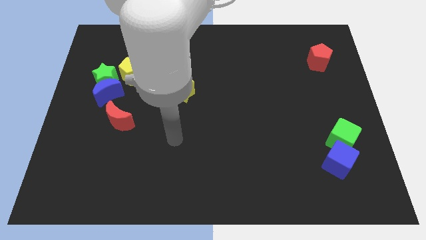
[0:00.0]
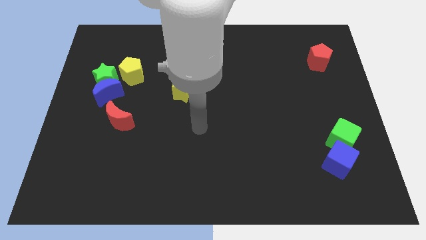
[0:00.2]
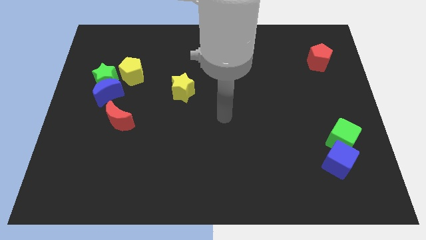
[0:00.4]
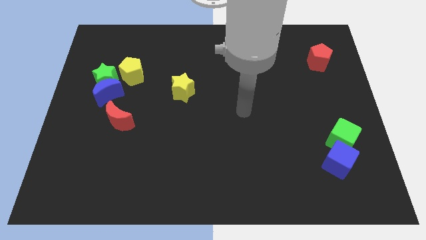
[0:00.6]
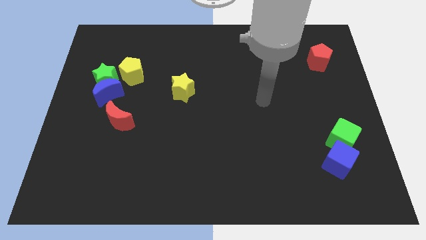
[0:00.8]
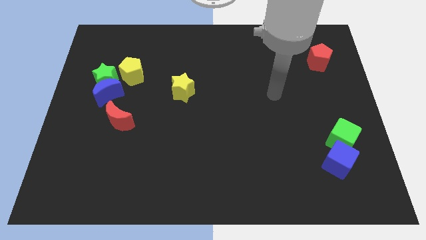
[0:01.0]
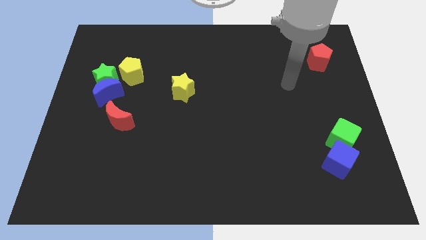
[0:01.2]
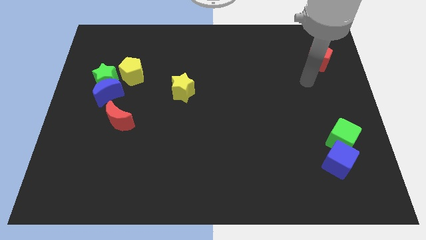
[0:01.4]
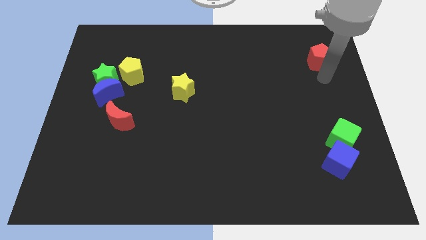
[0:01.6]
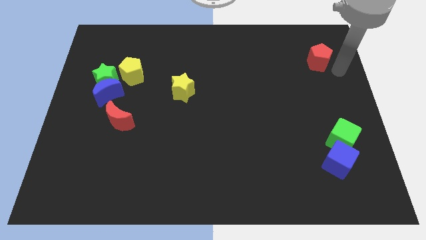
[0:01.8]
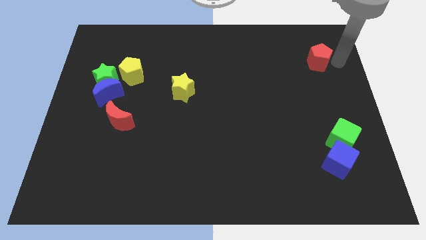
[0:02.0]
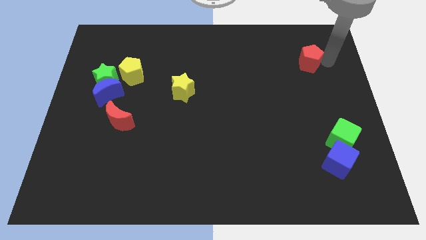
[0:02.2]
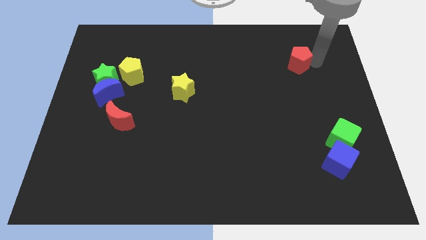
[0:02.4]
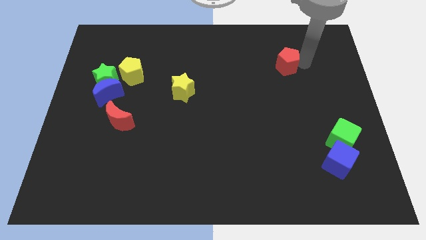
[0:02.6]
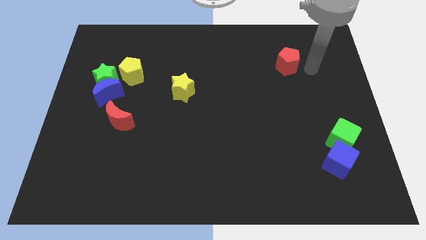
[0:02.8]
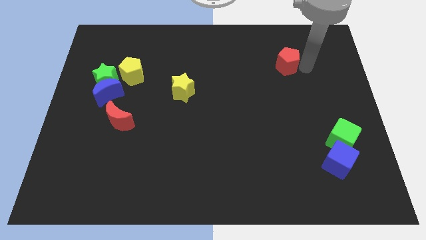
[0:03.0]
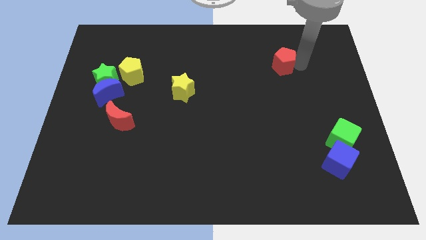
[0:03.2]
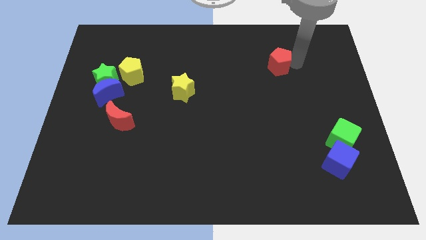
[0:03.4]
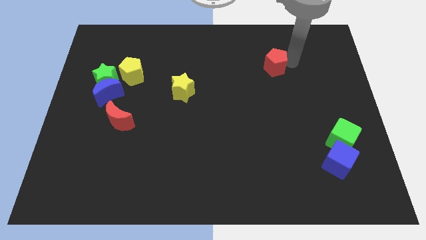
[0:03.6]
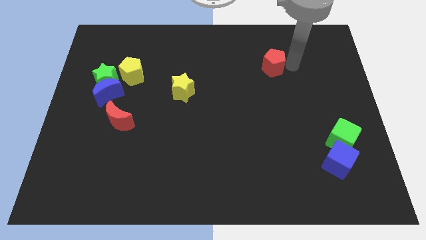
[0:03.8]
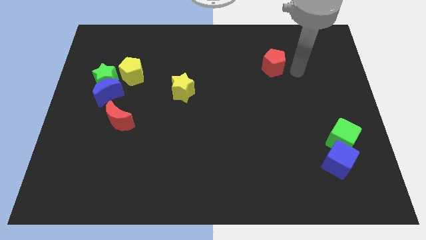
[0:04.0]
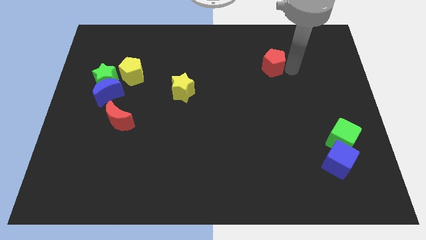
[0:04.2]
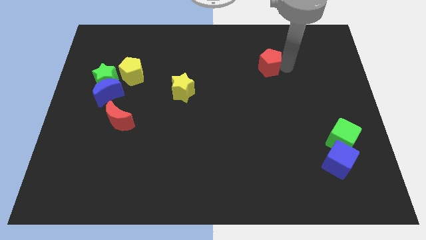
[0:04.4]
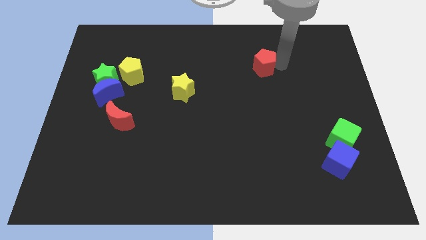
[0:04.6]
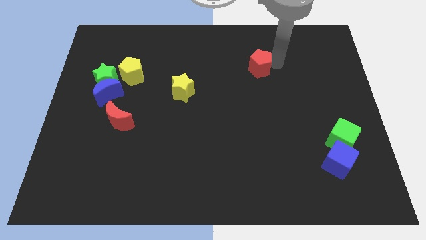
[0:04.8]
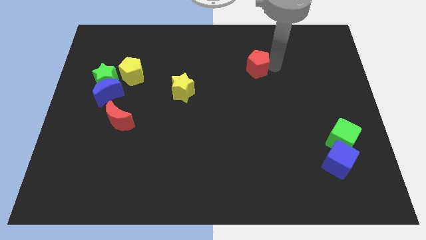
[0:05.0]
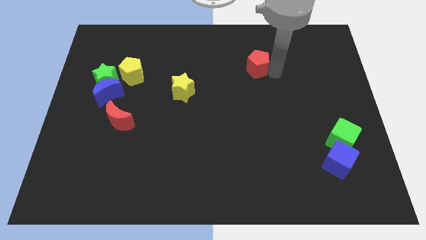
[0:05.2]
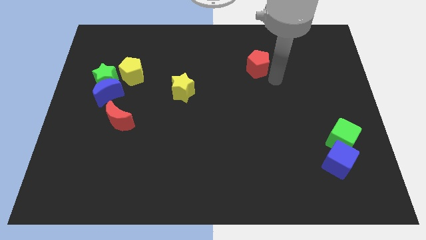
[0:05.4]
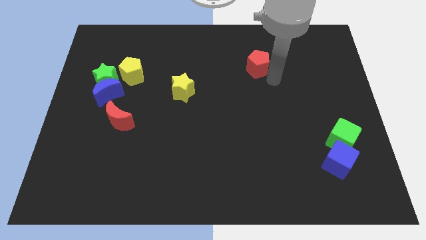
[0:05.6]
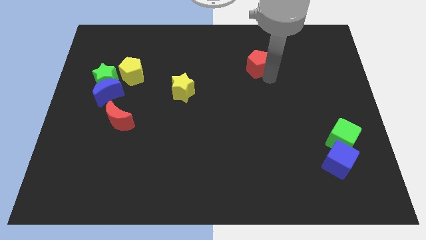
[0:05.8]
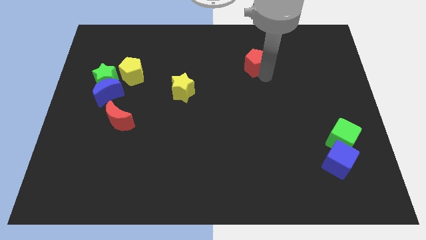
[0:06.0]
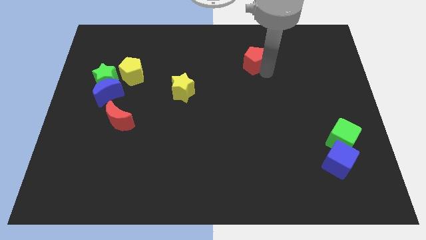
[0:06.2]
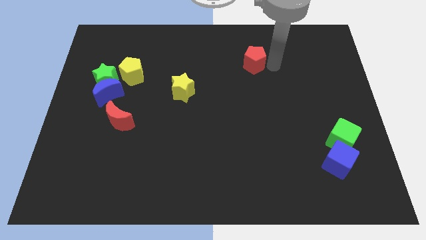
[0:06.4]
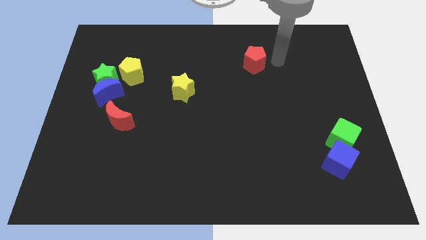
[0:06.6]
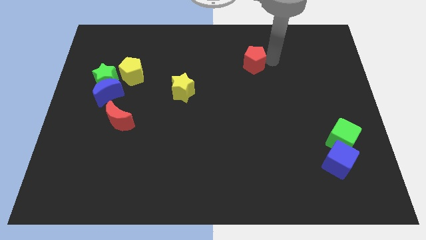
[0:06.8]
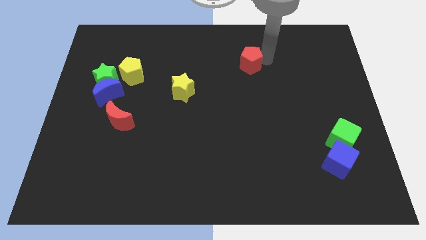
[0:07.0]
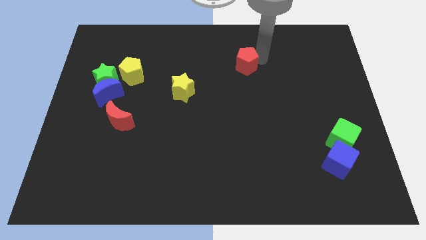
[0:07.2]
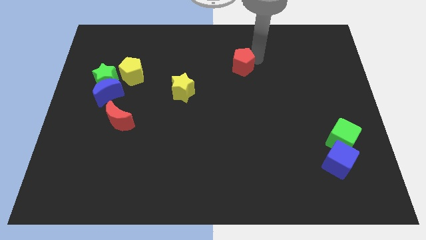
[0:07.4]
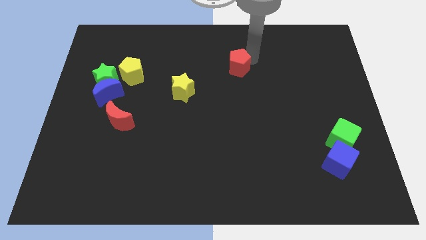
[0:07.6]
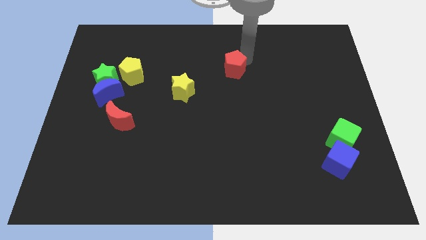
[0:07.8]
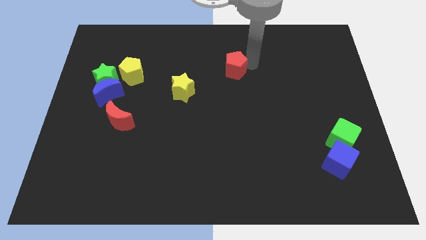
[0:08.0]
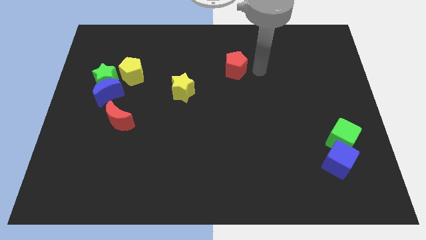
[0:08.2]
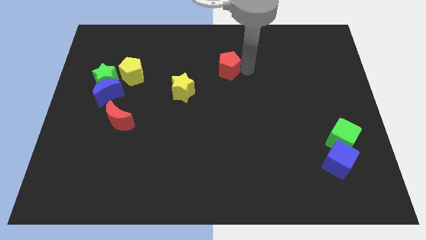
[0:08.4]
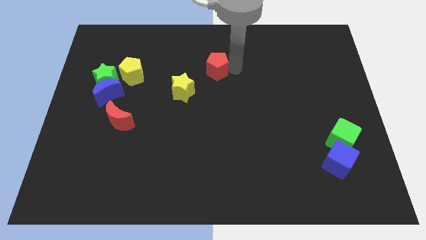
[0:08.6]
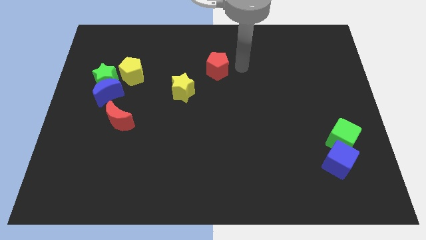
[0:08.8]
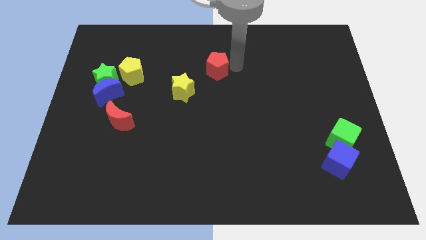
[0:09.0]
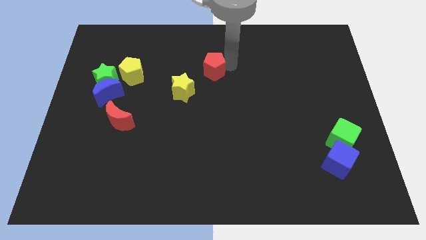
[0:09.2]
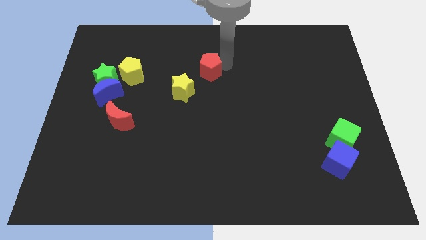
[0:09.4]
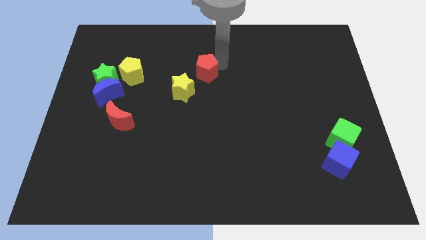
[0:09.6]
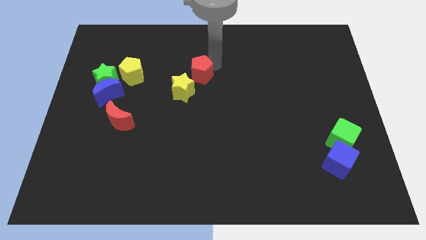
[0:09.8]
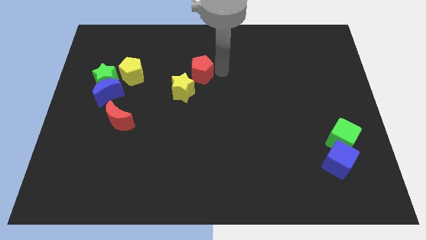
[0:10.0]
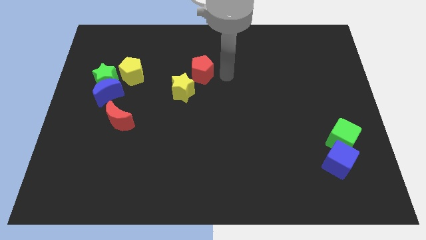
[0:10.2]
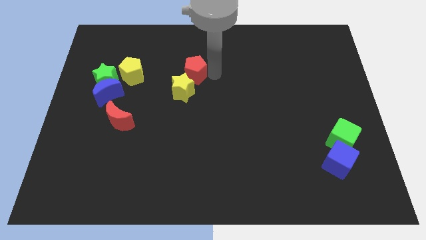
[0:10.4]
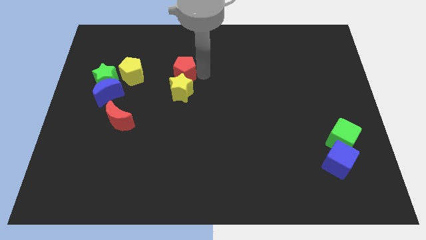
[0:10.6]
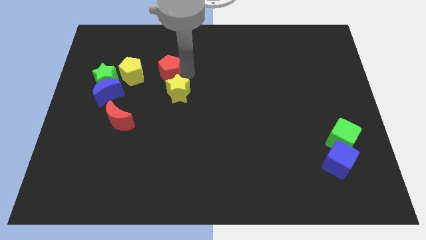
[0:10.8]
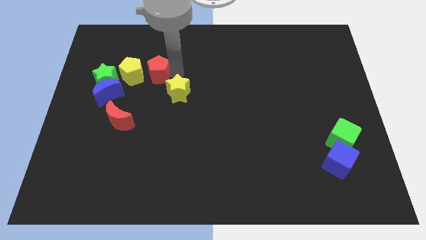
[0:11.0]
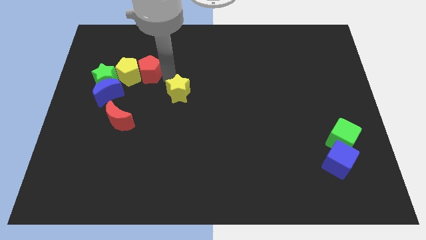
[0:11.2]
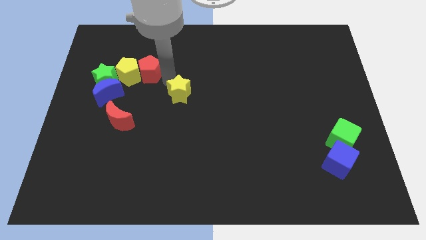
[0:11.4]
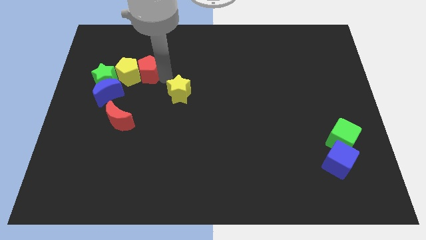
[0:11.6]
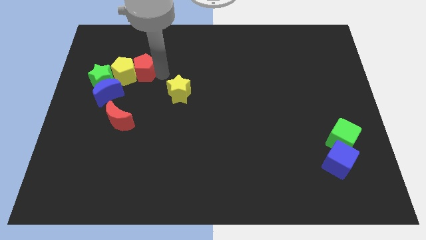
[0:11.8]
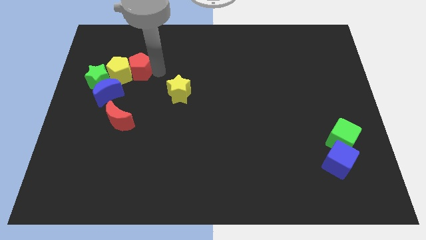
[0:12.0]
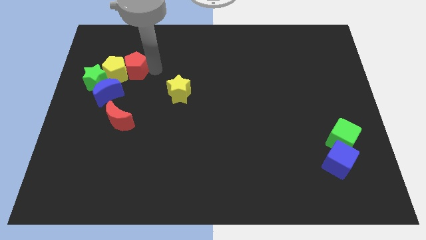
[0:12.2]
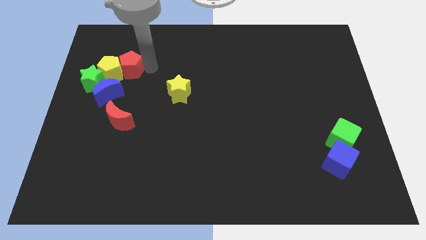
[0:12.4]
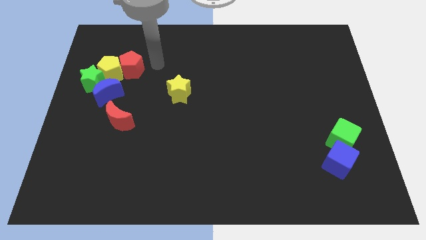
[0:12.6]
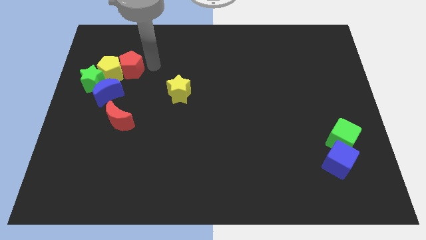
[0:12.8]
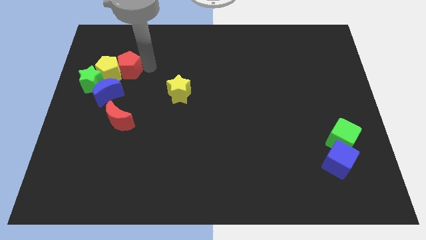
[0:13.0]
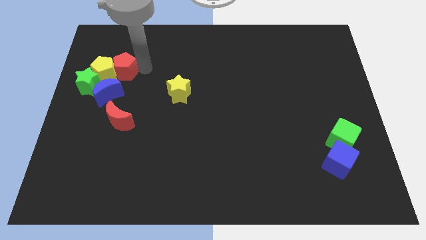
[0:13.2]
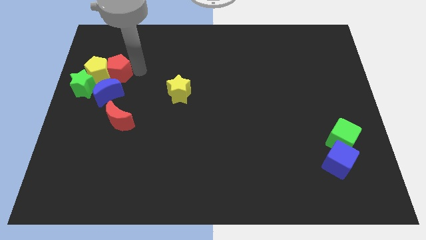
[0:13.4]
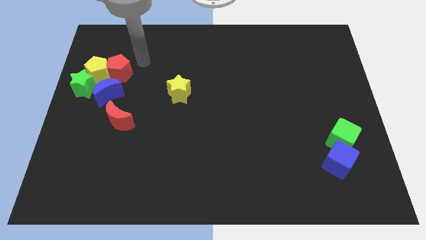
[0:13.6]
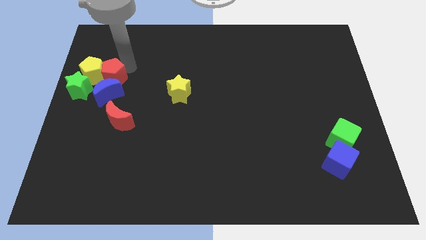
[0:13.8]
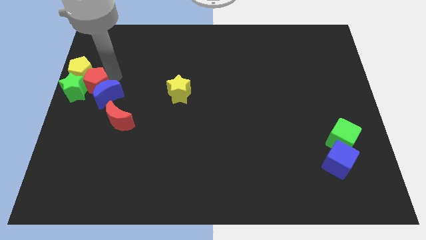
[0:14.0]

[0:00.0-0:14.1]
put the red pentagon to the green star
